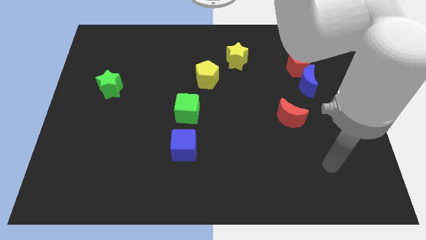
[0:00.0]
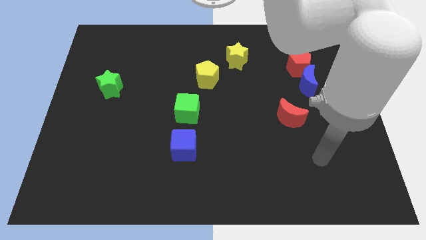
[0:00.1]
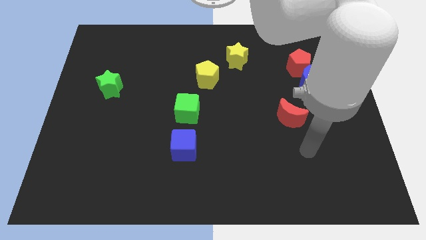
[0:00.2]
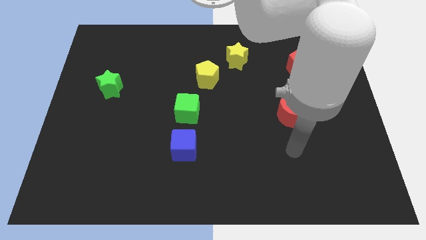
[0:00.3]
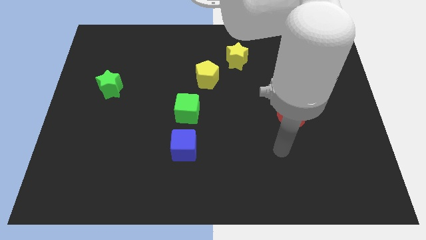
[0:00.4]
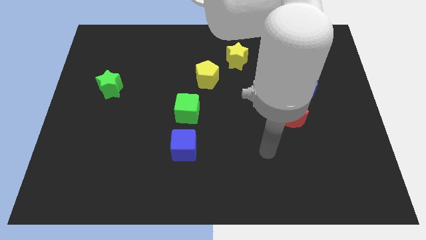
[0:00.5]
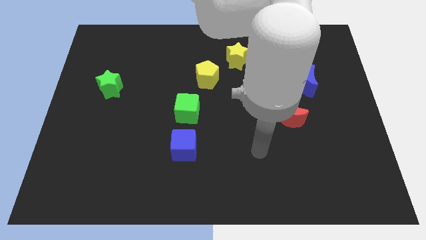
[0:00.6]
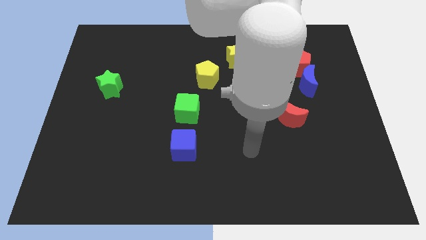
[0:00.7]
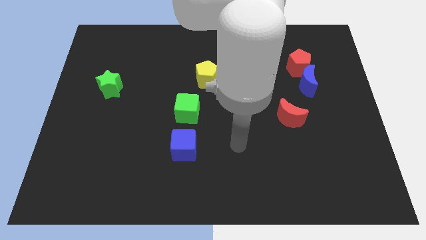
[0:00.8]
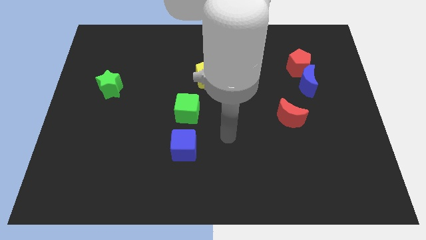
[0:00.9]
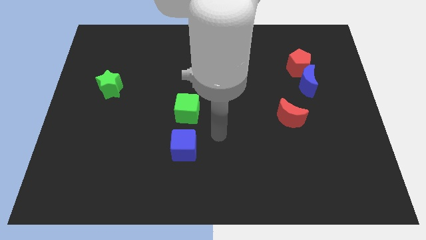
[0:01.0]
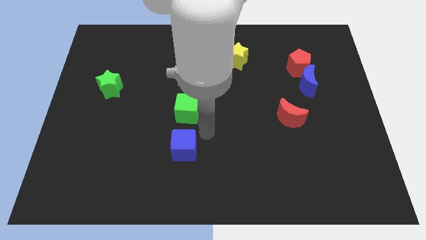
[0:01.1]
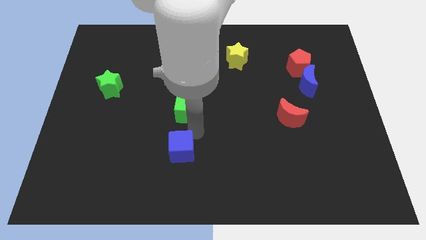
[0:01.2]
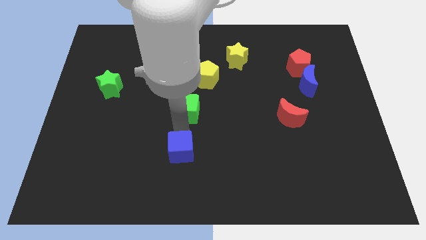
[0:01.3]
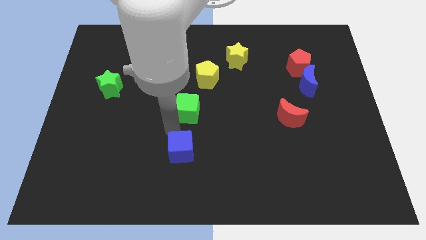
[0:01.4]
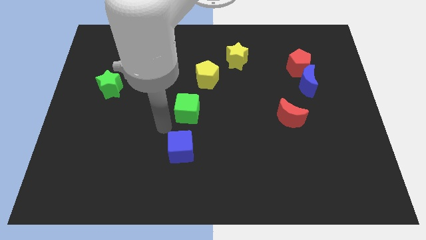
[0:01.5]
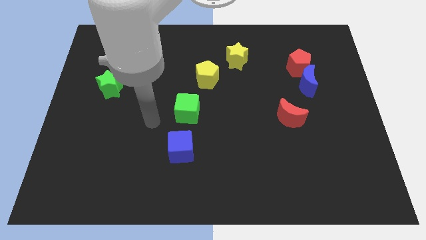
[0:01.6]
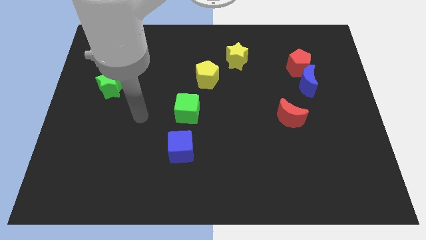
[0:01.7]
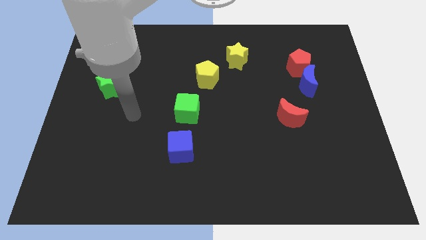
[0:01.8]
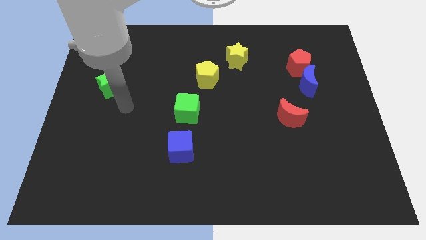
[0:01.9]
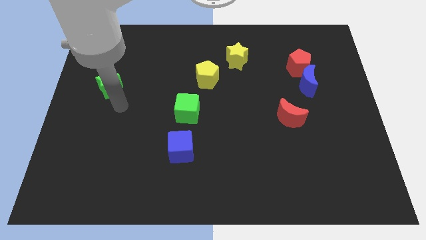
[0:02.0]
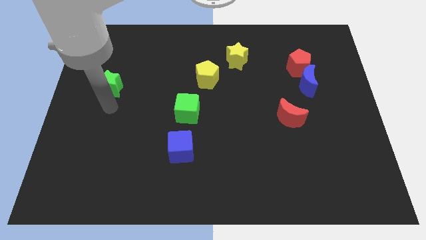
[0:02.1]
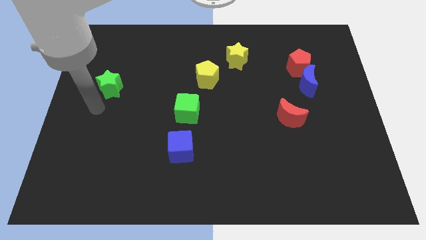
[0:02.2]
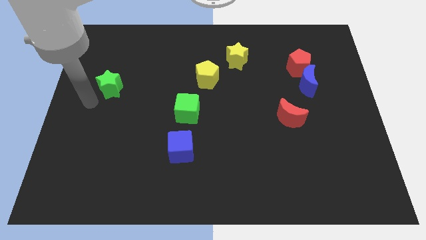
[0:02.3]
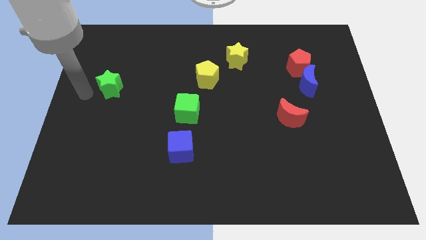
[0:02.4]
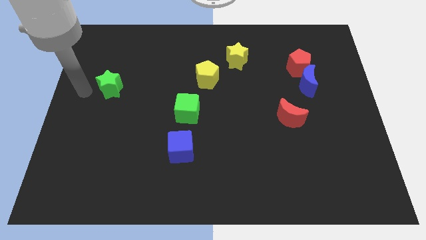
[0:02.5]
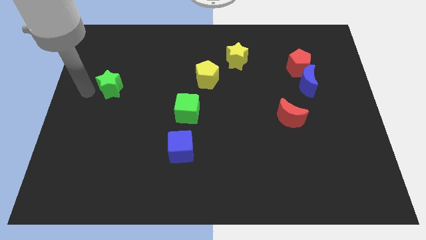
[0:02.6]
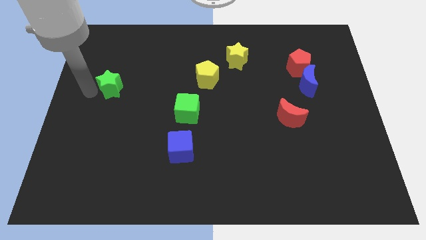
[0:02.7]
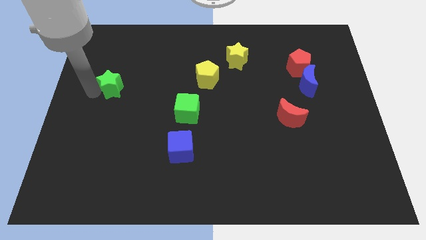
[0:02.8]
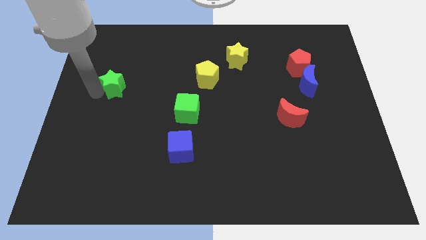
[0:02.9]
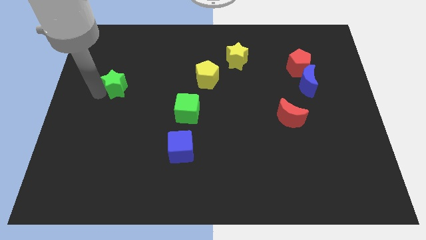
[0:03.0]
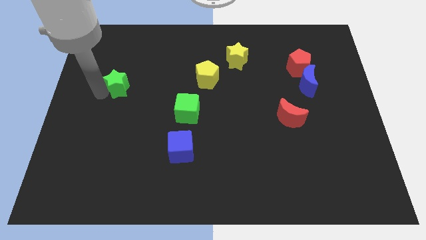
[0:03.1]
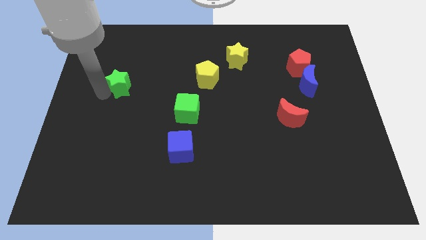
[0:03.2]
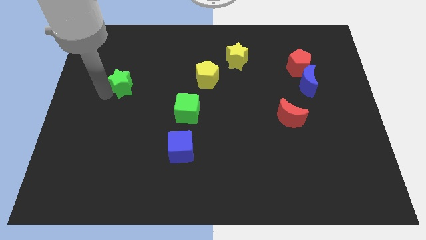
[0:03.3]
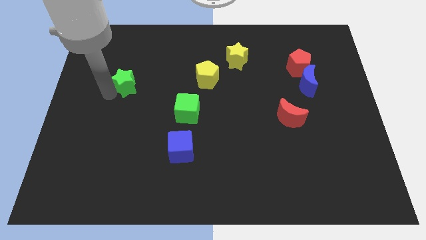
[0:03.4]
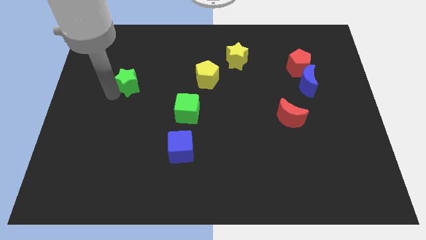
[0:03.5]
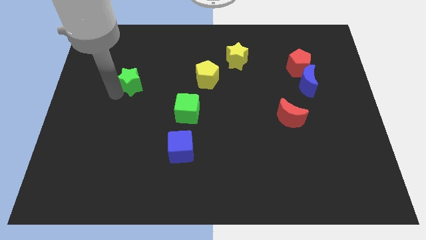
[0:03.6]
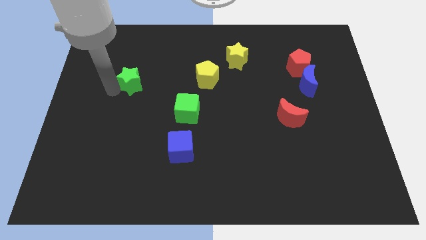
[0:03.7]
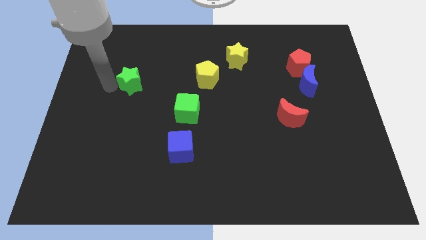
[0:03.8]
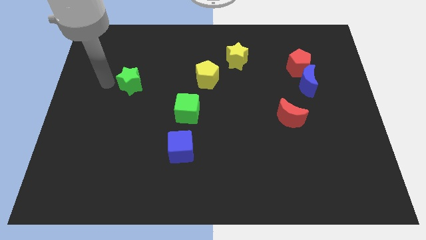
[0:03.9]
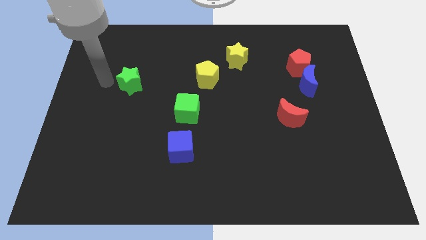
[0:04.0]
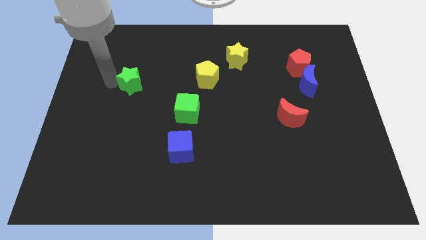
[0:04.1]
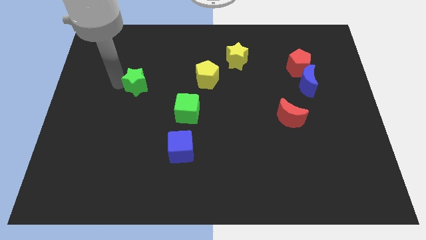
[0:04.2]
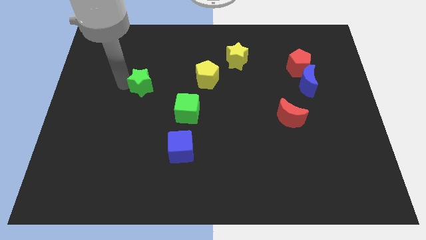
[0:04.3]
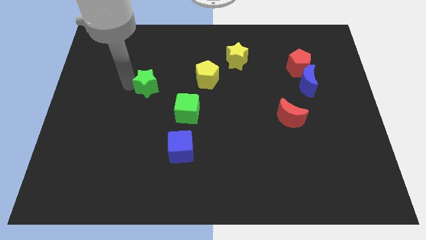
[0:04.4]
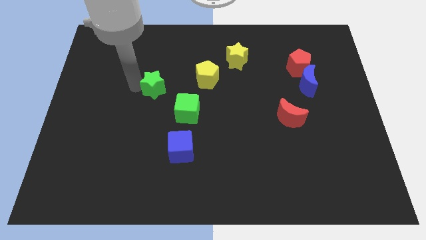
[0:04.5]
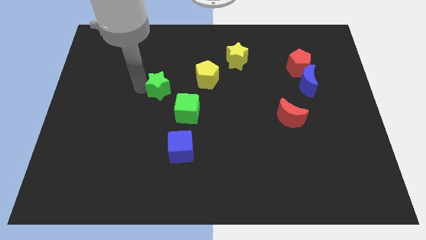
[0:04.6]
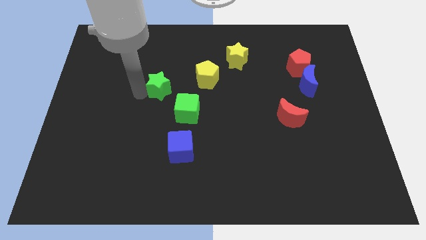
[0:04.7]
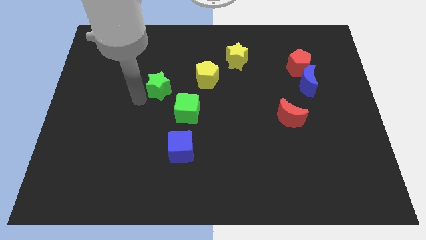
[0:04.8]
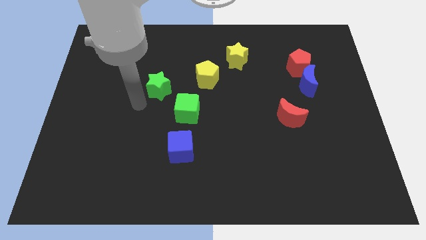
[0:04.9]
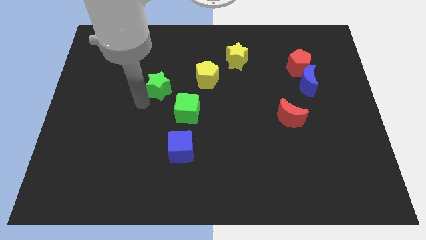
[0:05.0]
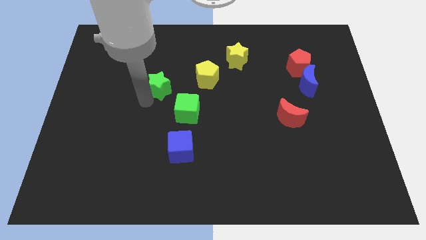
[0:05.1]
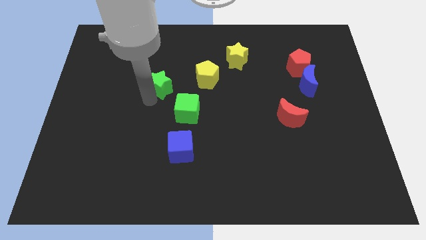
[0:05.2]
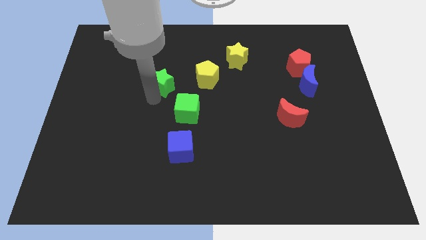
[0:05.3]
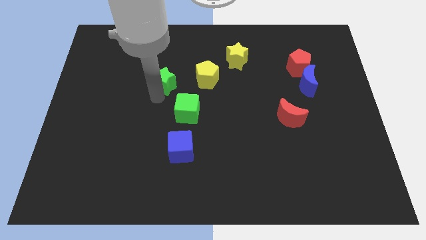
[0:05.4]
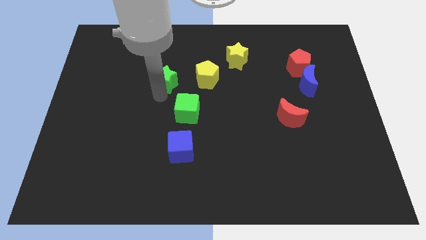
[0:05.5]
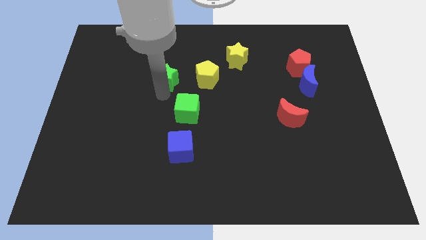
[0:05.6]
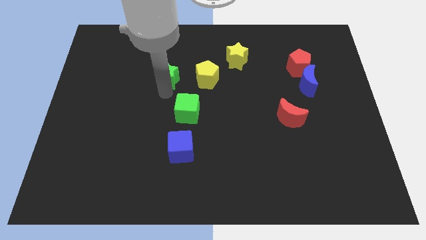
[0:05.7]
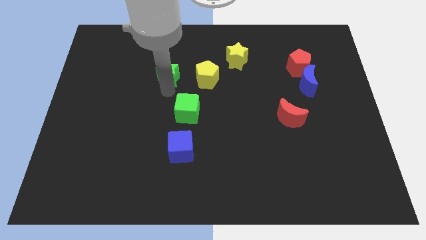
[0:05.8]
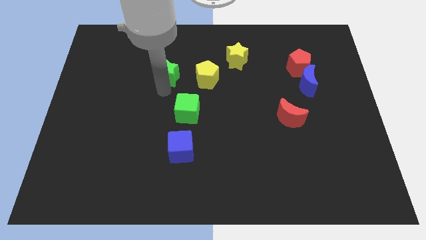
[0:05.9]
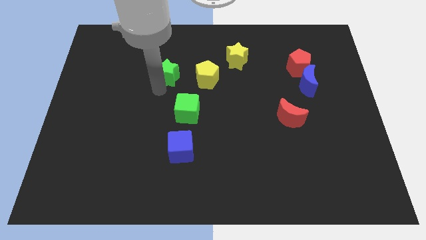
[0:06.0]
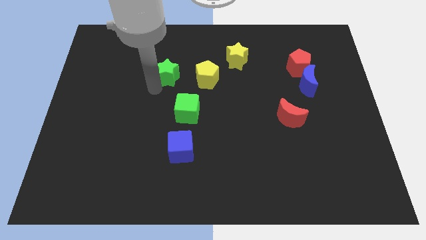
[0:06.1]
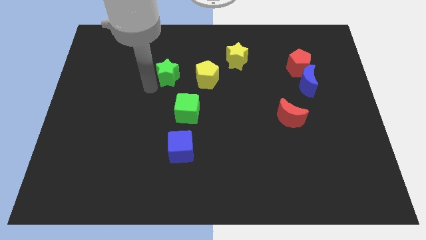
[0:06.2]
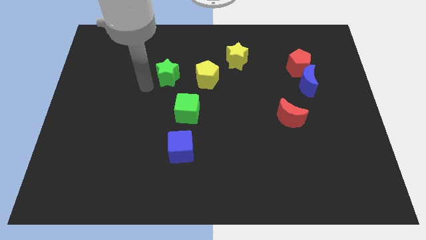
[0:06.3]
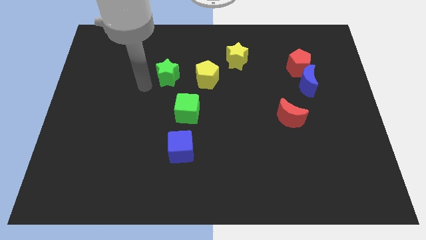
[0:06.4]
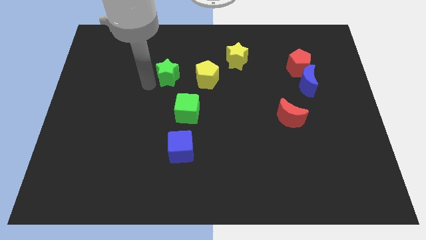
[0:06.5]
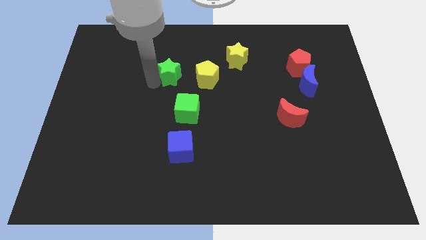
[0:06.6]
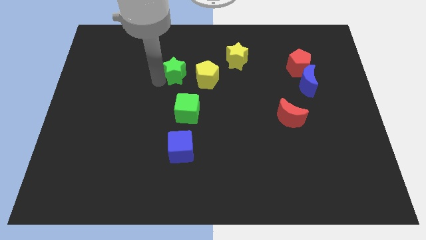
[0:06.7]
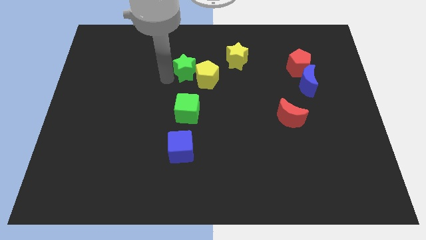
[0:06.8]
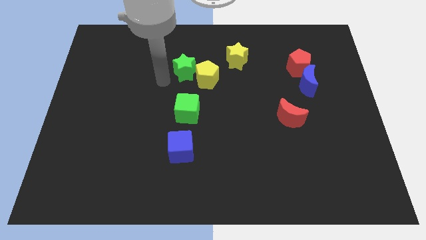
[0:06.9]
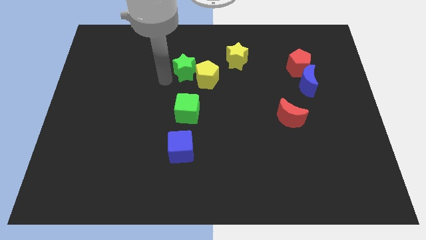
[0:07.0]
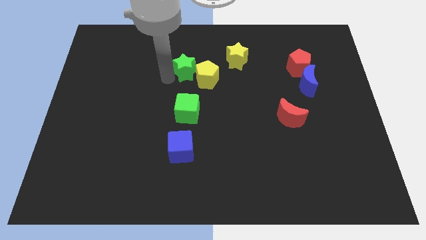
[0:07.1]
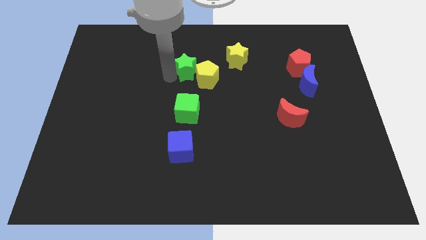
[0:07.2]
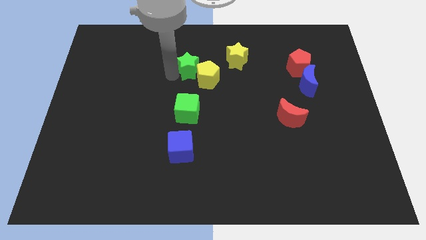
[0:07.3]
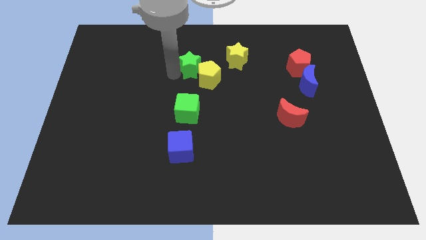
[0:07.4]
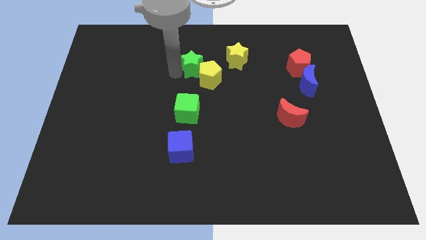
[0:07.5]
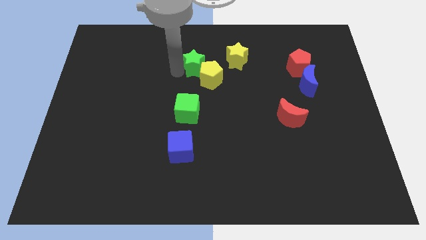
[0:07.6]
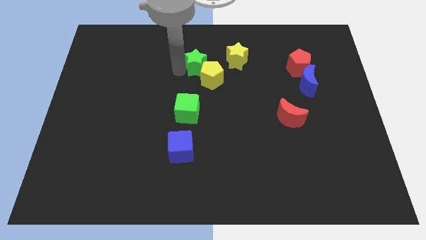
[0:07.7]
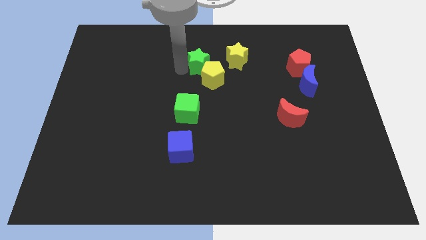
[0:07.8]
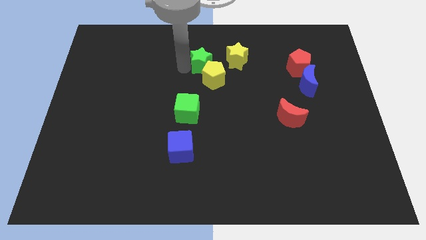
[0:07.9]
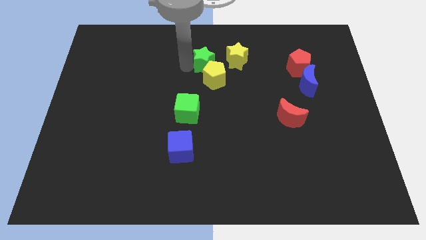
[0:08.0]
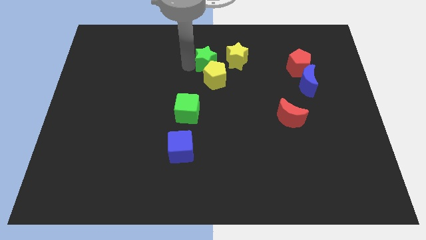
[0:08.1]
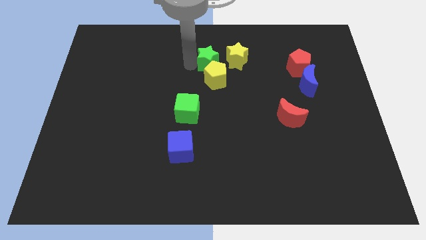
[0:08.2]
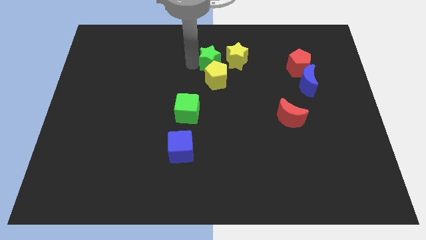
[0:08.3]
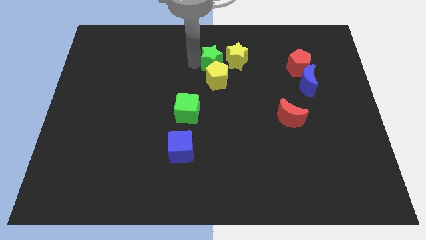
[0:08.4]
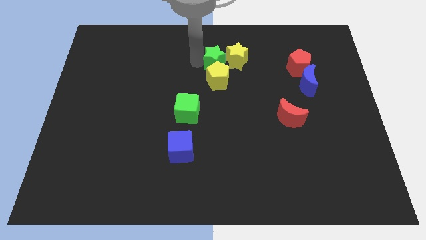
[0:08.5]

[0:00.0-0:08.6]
push the green star next to the yellow star
